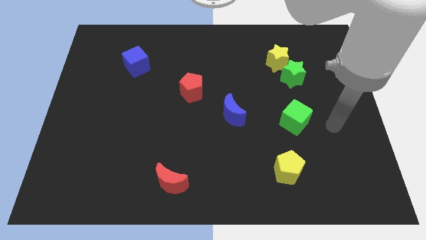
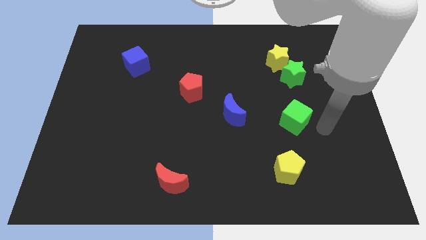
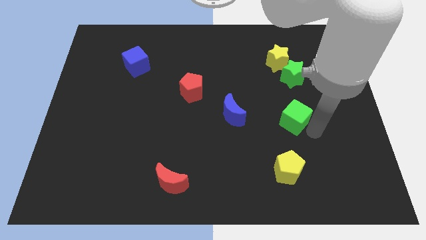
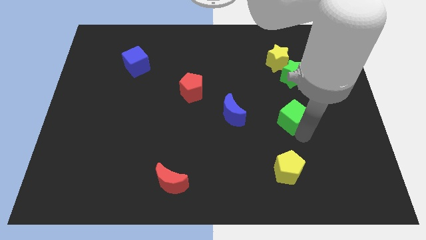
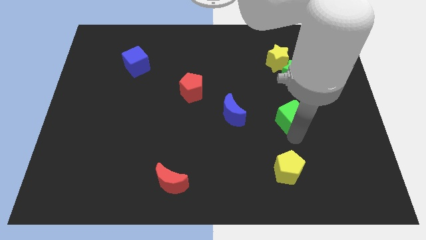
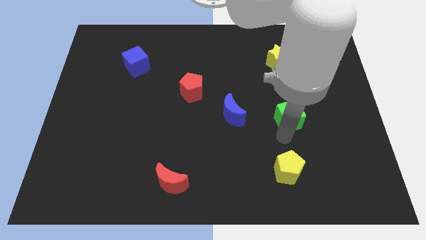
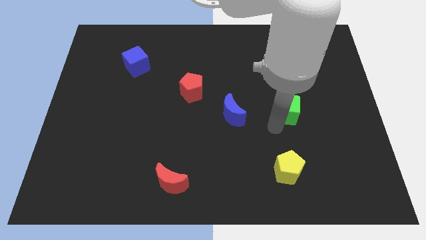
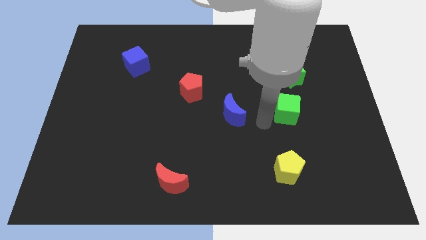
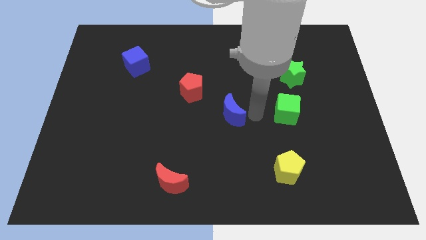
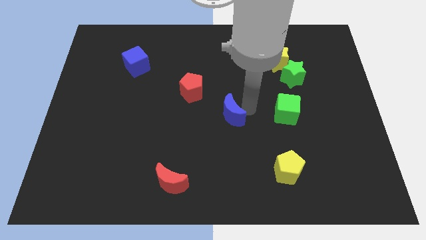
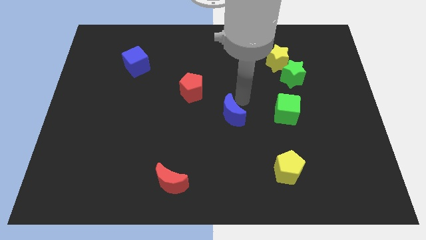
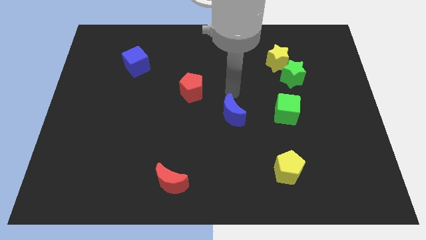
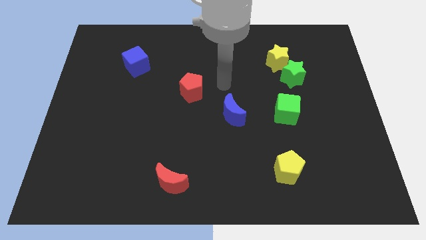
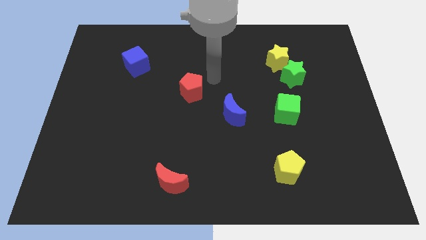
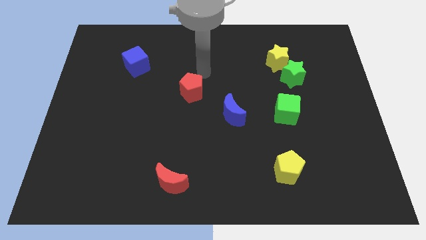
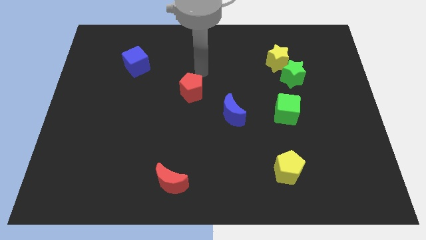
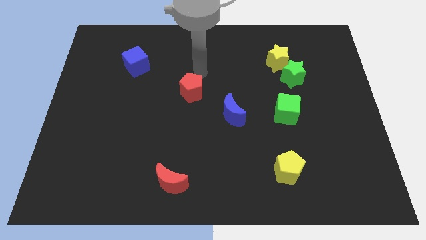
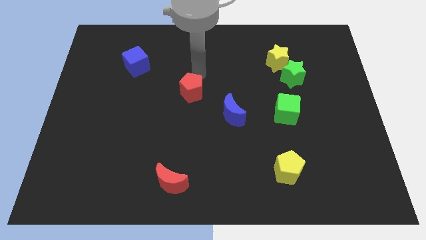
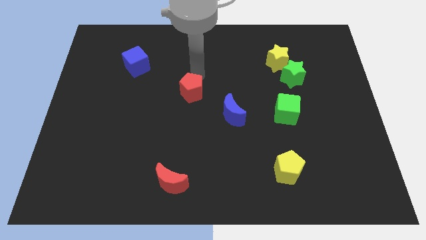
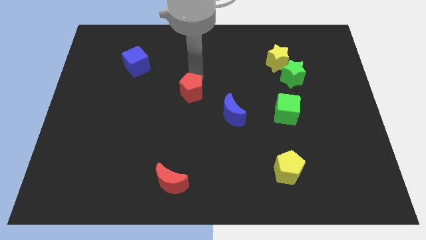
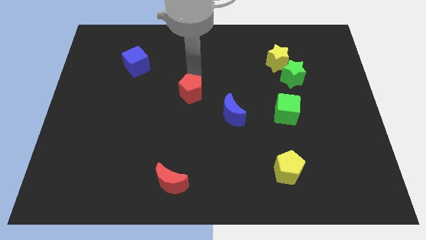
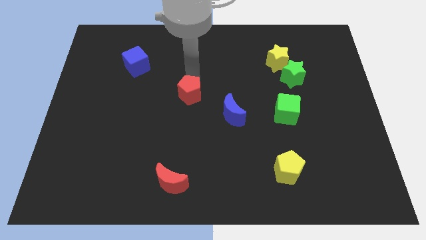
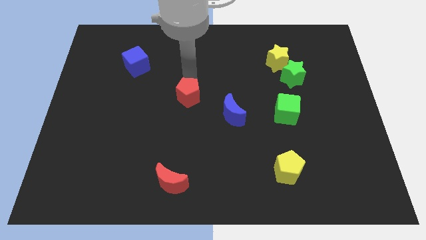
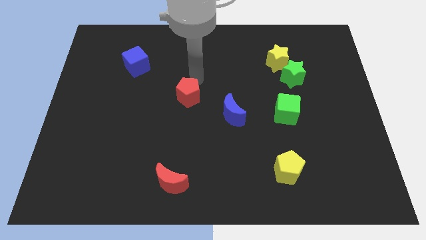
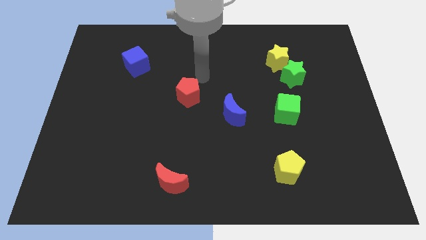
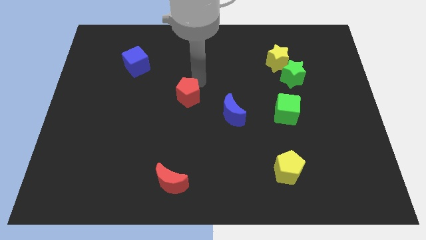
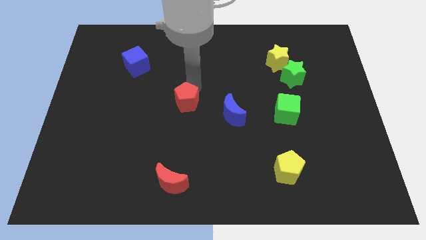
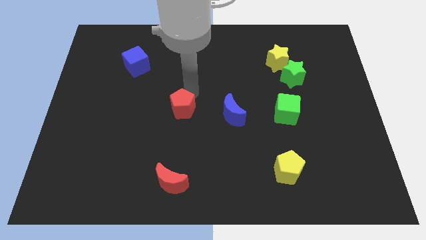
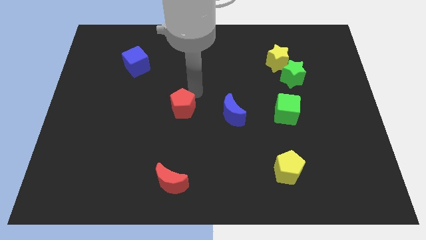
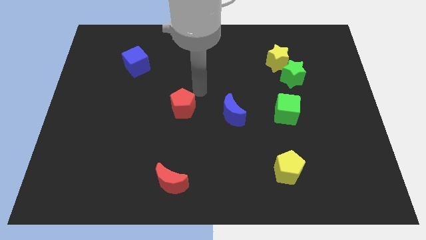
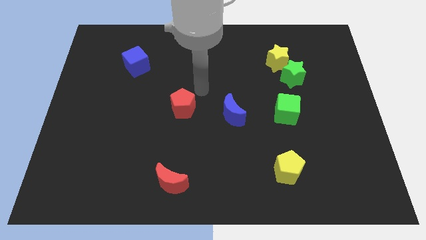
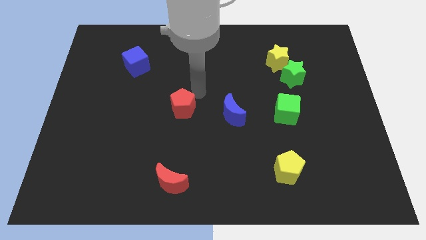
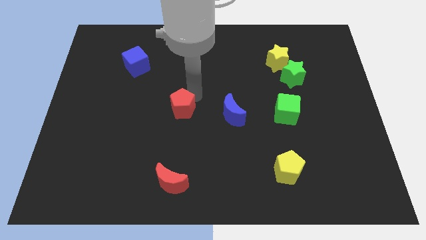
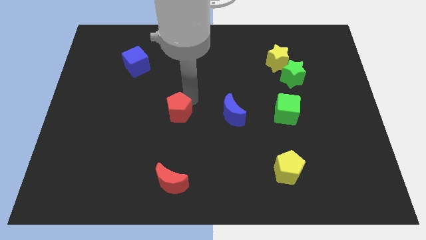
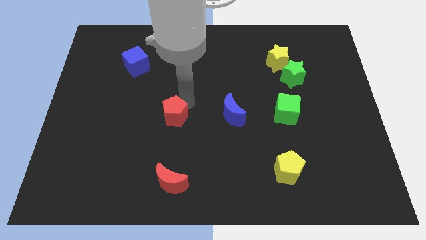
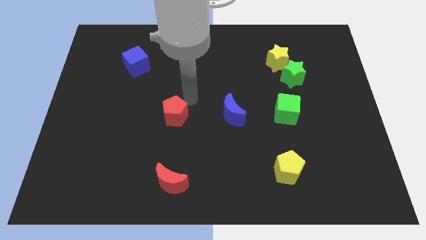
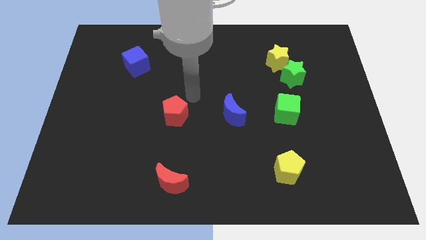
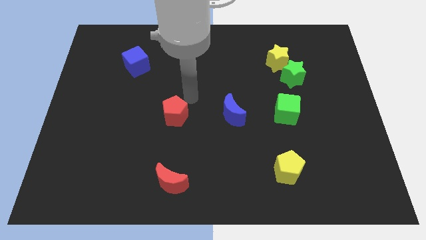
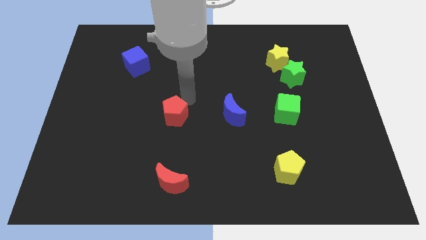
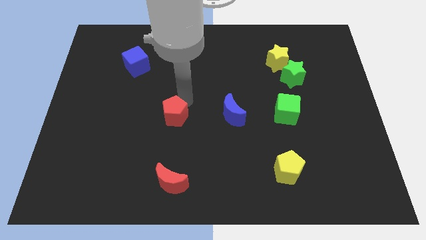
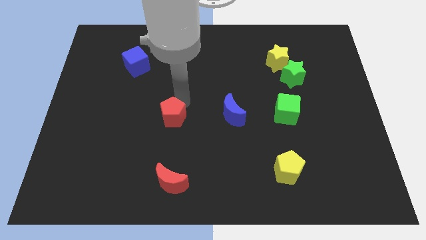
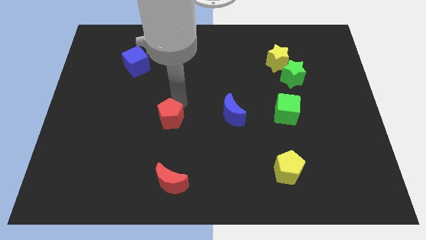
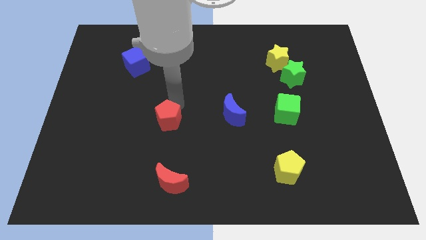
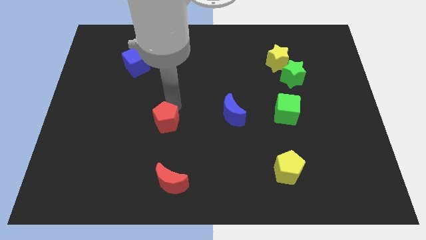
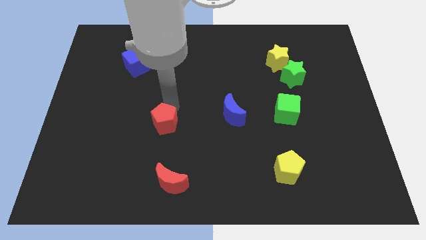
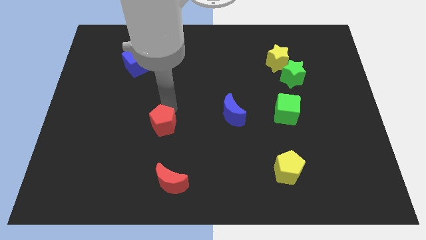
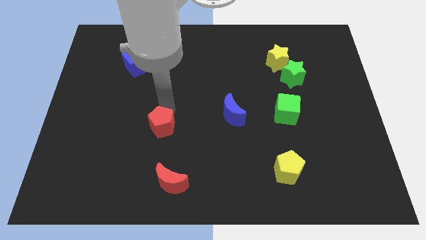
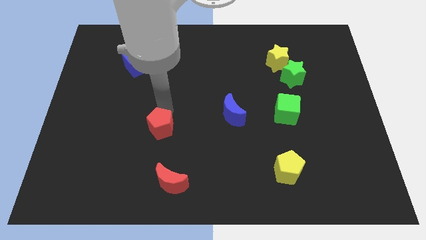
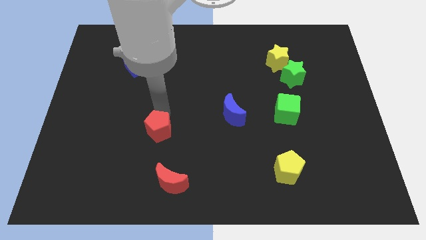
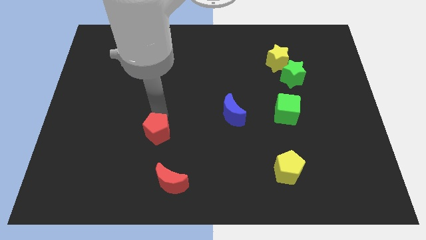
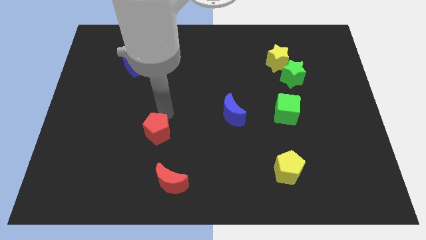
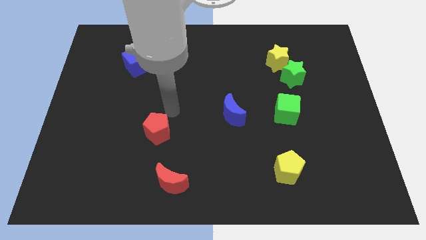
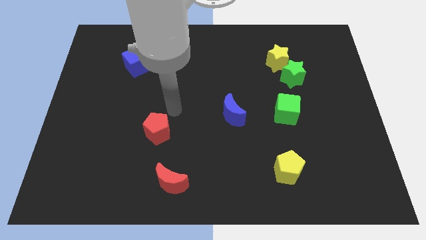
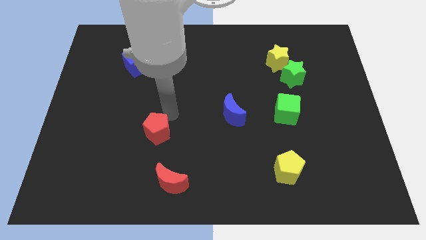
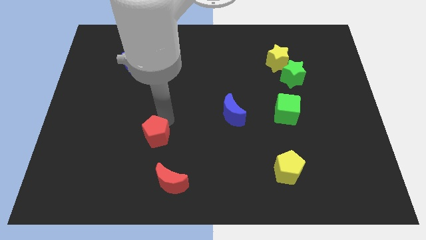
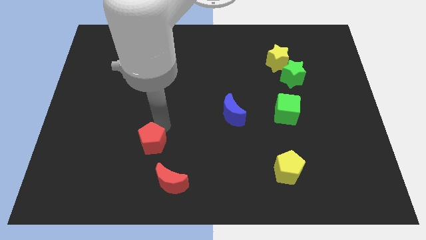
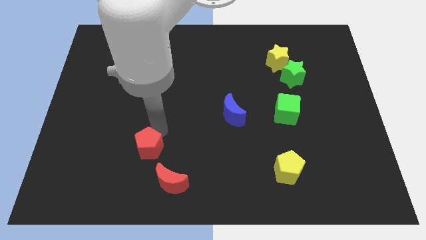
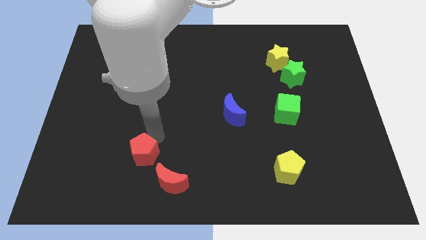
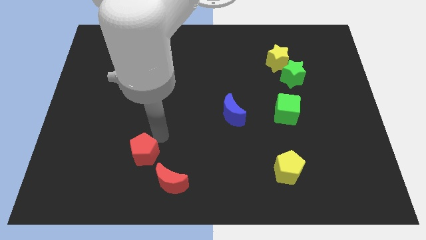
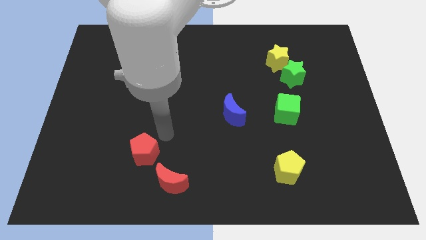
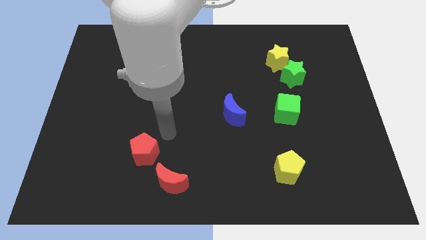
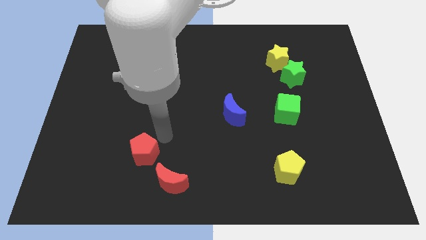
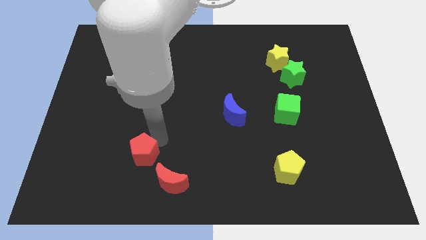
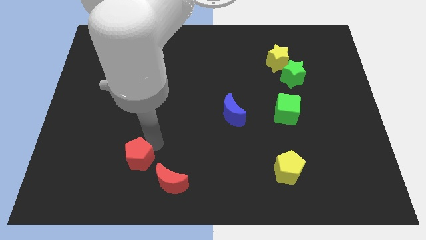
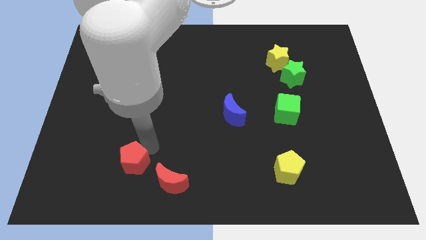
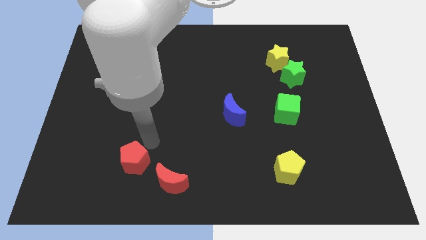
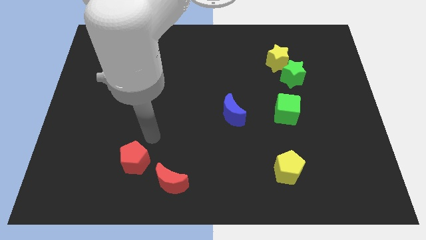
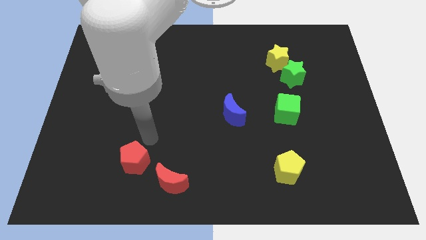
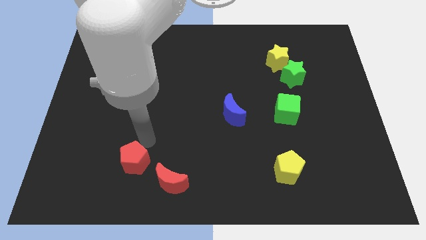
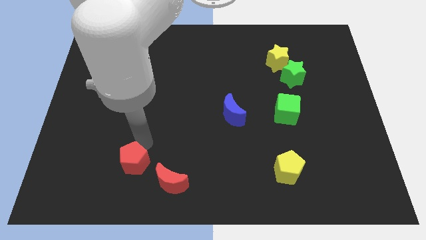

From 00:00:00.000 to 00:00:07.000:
put the red pentagon to the left of the red moon

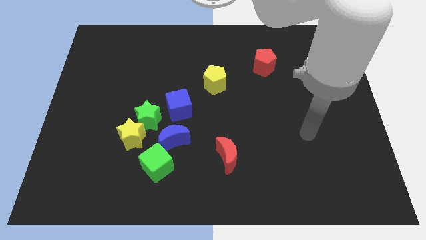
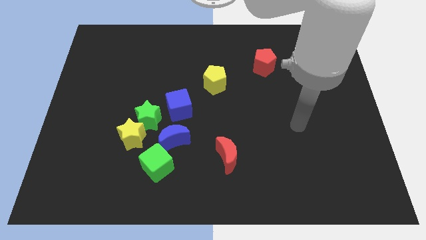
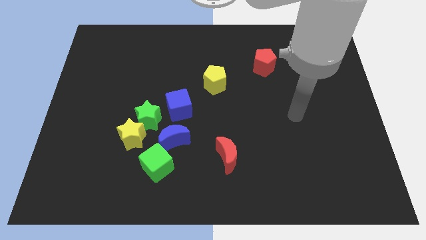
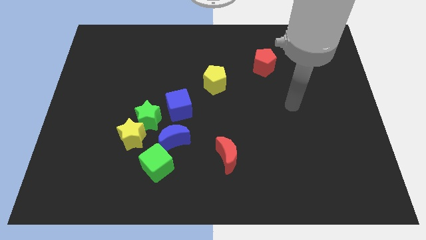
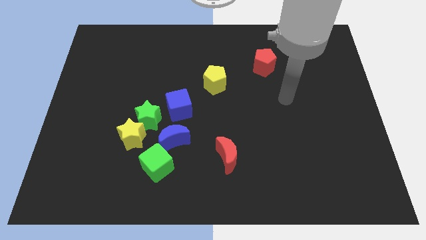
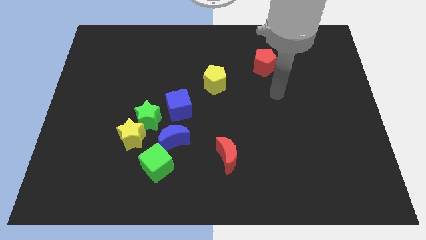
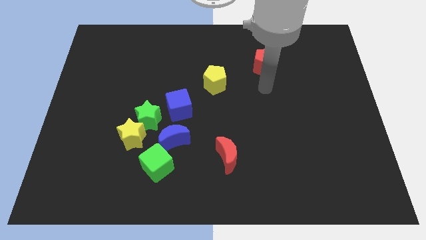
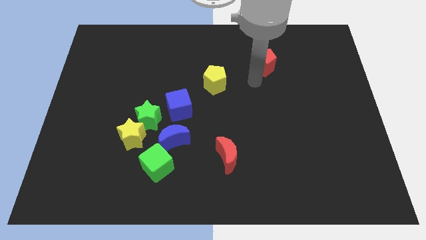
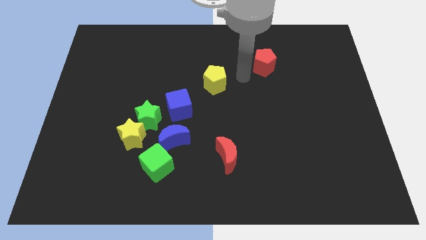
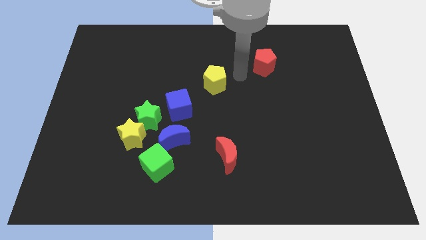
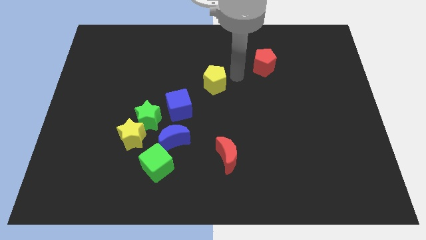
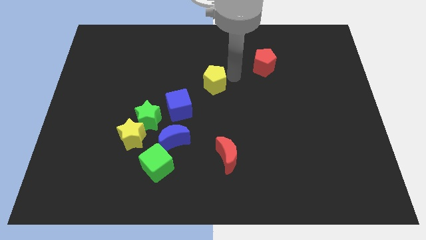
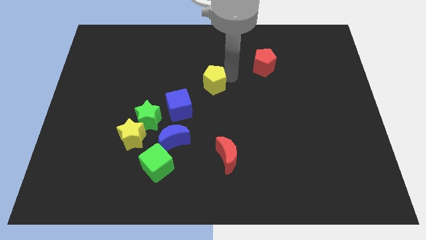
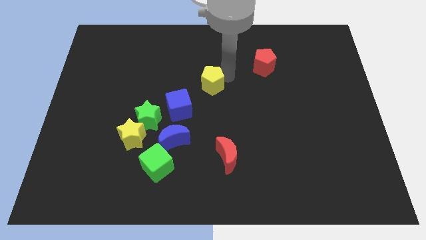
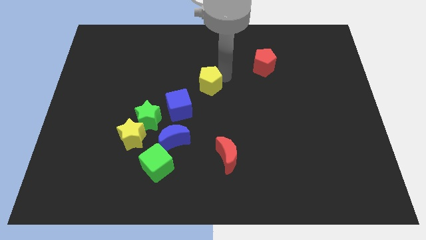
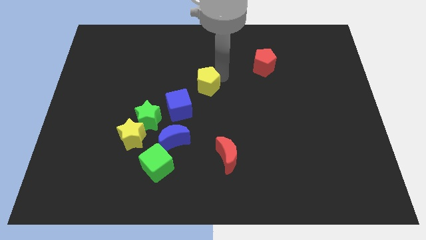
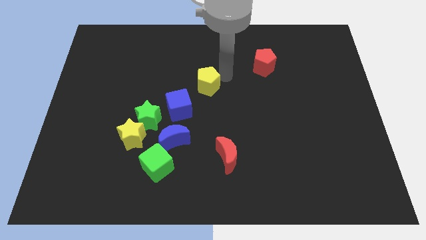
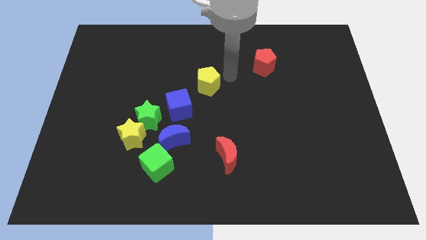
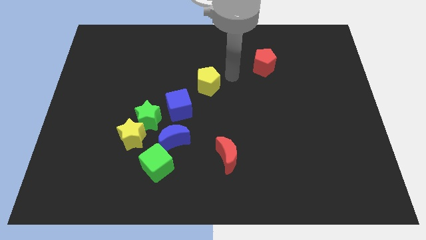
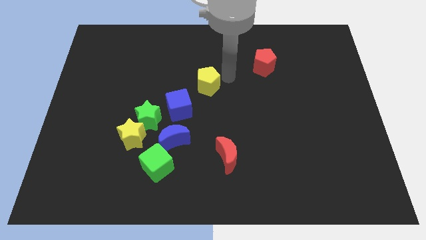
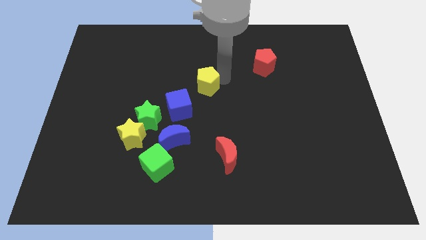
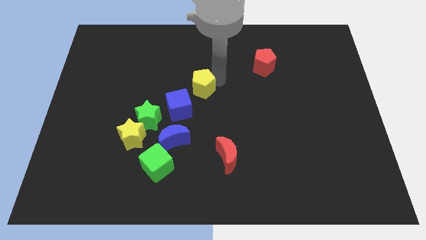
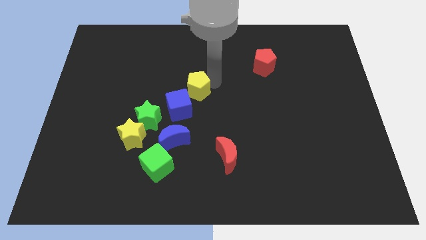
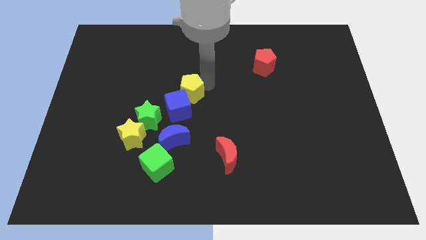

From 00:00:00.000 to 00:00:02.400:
put the yellow pentagon to the top side of the blue moon
